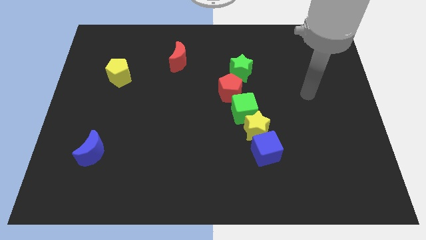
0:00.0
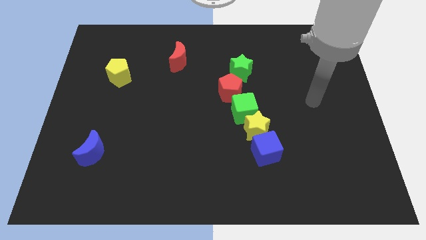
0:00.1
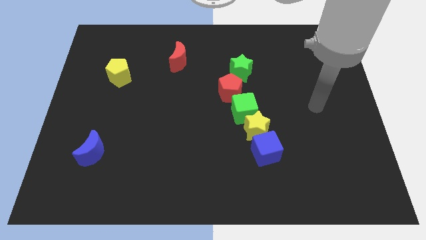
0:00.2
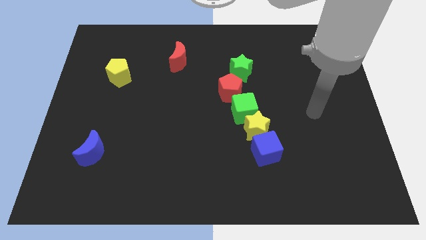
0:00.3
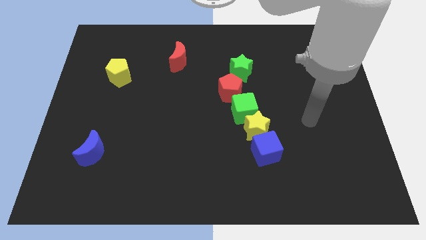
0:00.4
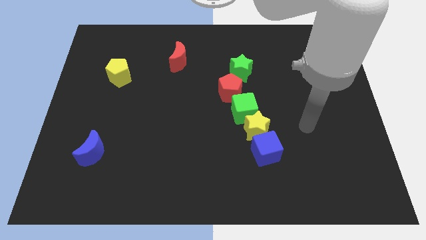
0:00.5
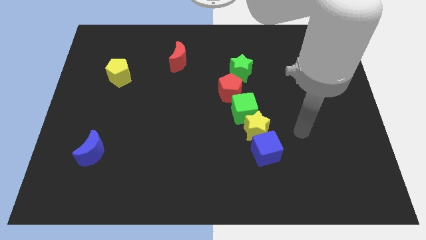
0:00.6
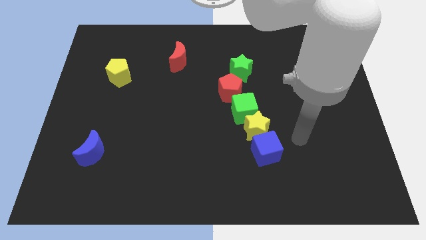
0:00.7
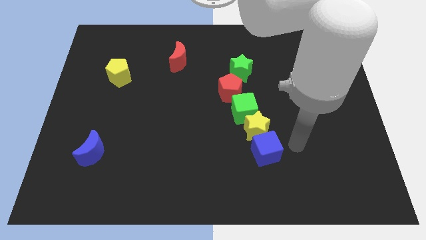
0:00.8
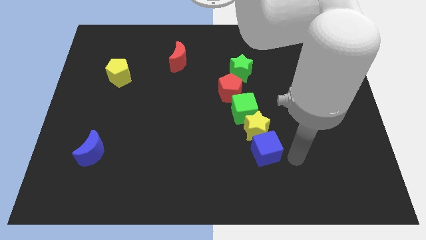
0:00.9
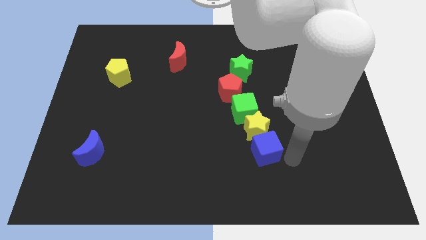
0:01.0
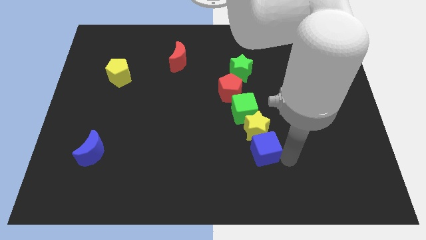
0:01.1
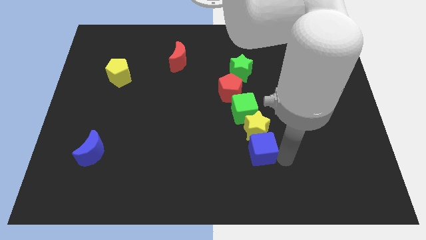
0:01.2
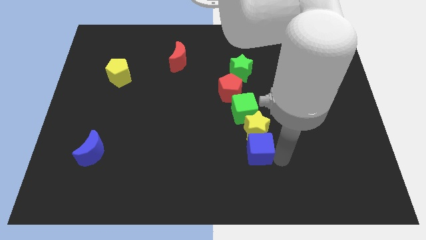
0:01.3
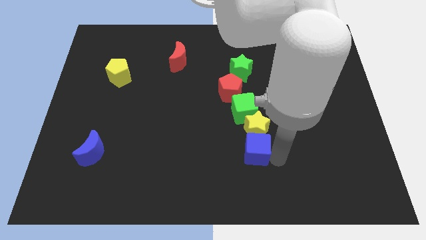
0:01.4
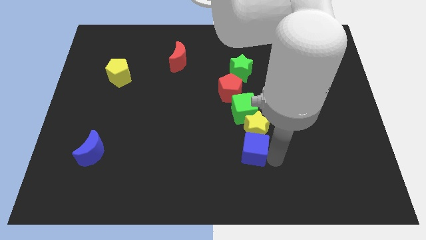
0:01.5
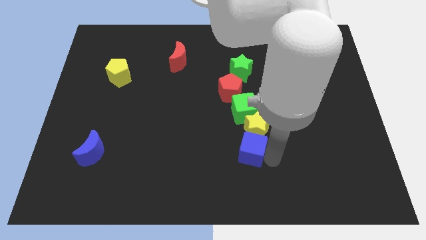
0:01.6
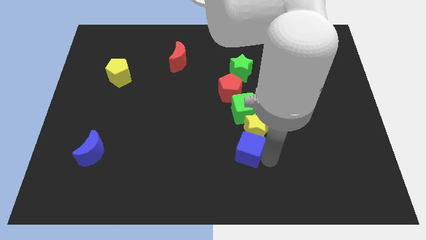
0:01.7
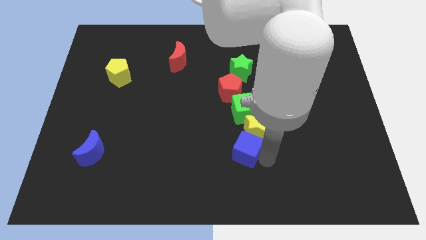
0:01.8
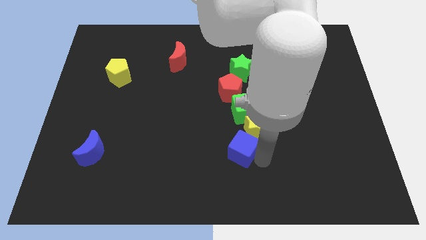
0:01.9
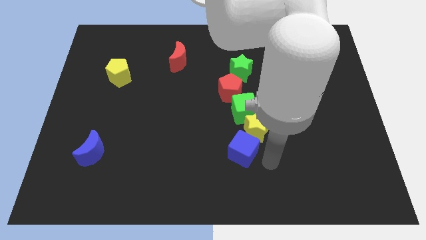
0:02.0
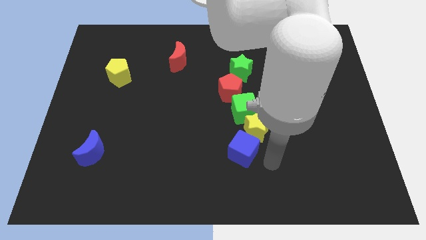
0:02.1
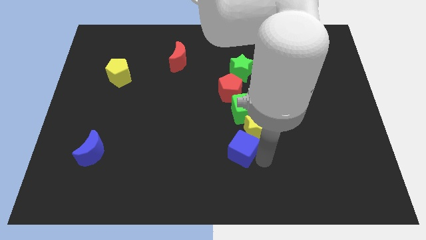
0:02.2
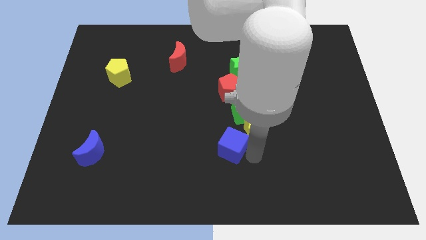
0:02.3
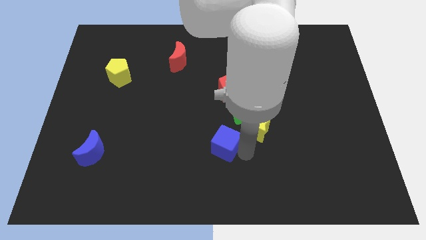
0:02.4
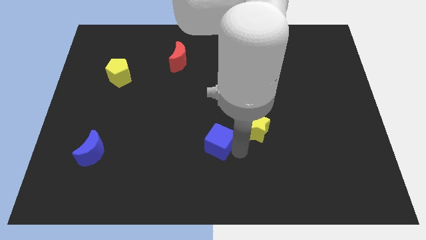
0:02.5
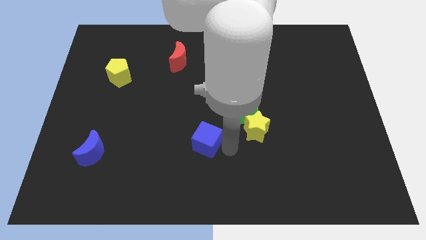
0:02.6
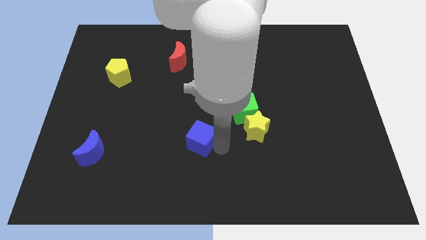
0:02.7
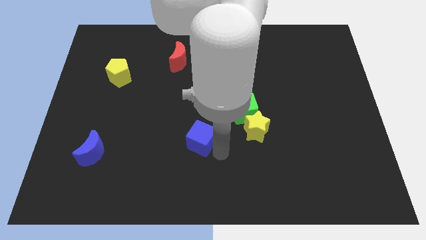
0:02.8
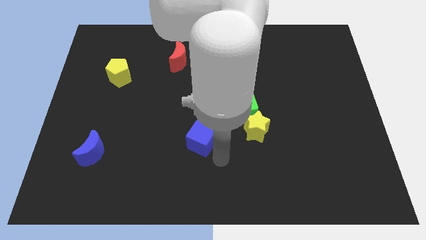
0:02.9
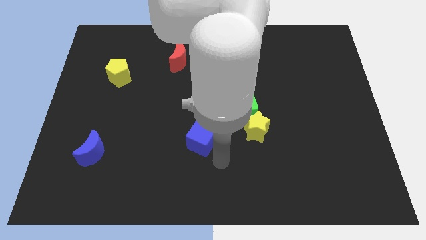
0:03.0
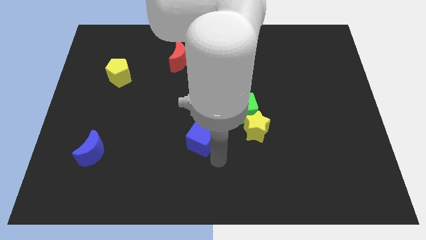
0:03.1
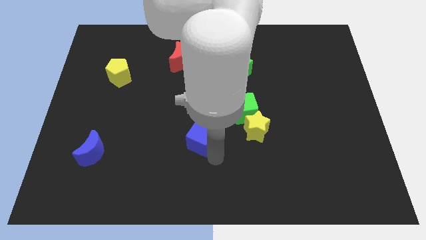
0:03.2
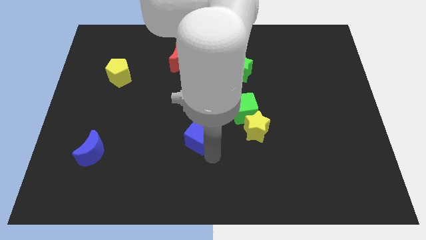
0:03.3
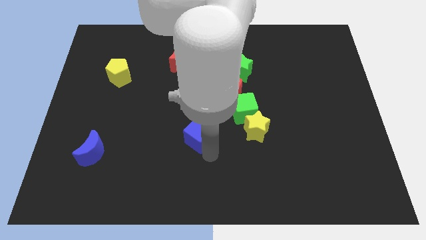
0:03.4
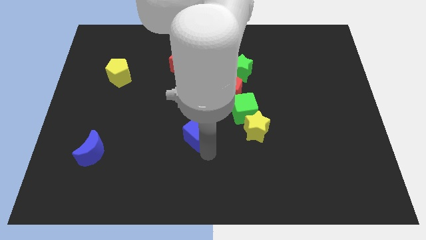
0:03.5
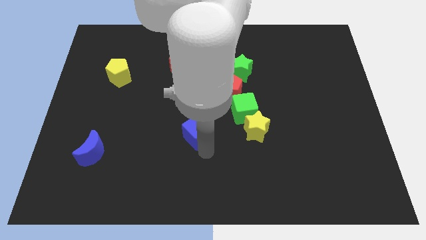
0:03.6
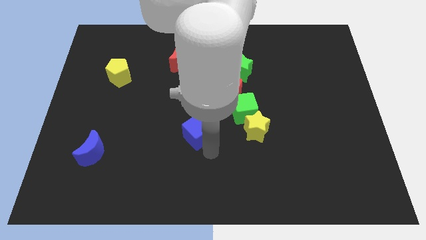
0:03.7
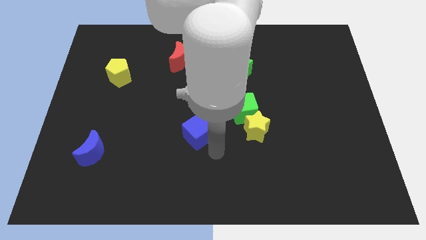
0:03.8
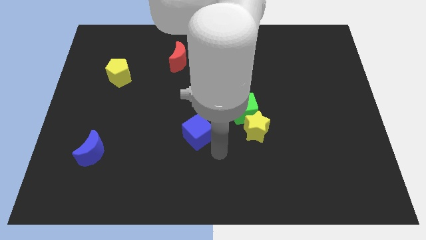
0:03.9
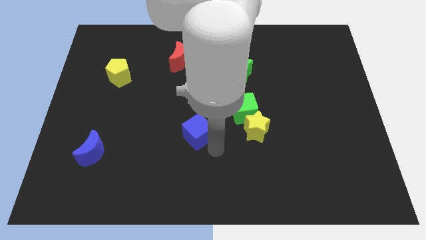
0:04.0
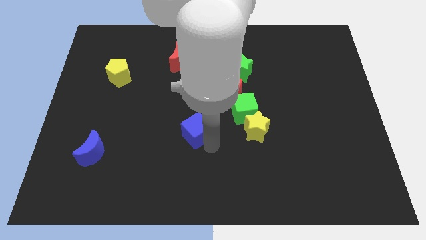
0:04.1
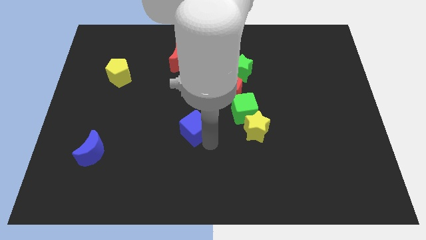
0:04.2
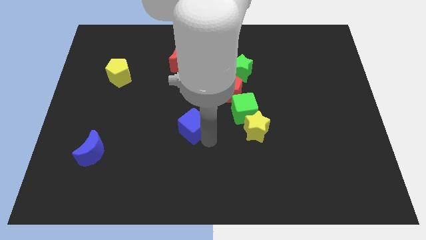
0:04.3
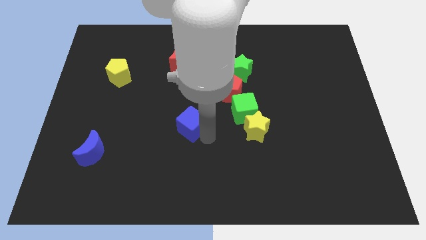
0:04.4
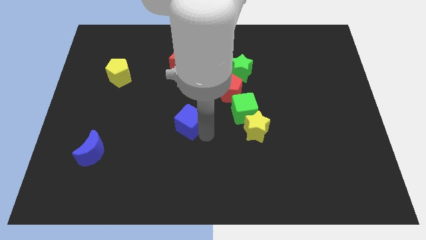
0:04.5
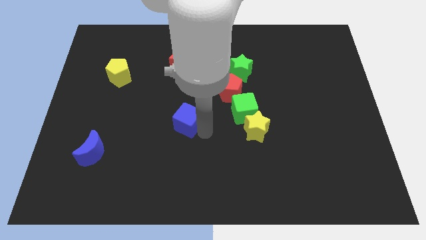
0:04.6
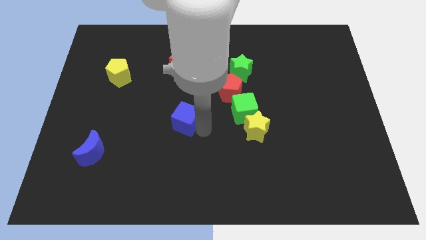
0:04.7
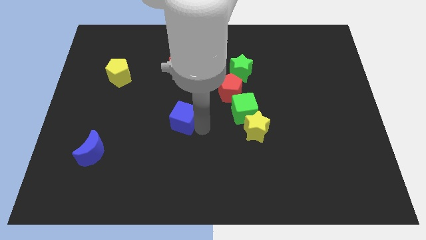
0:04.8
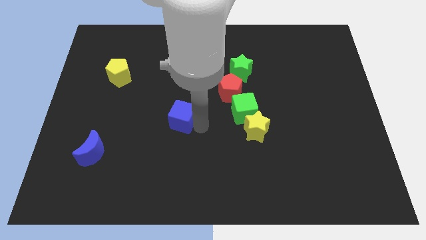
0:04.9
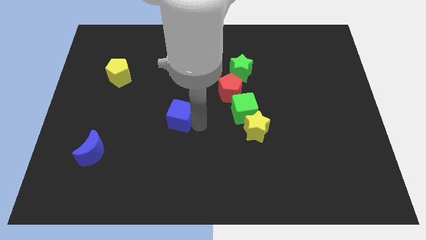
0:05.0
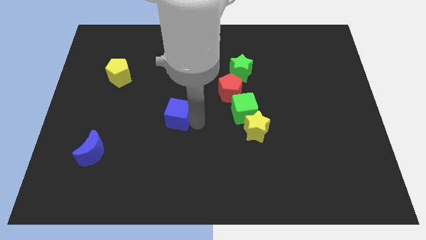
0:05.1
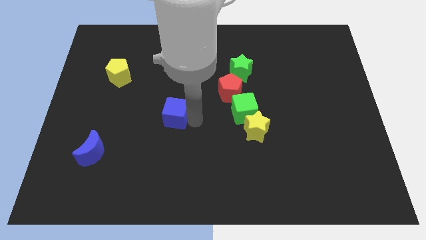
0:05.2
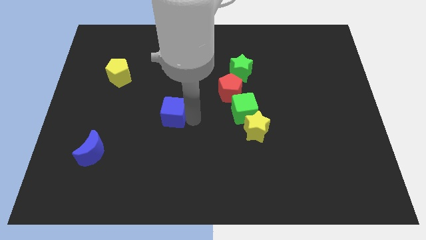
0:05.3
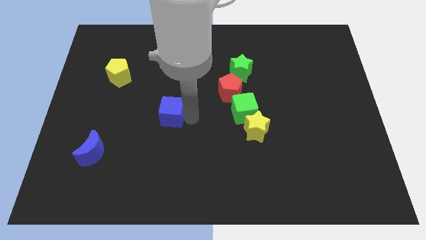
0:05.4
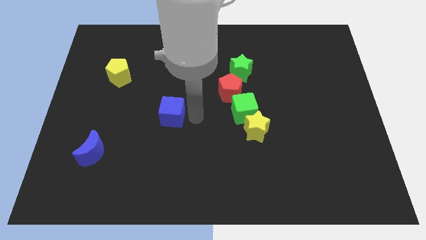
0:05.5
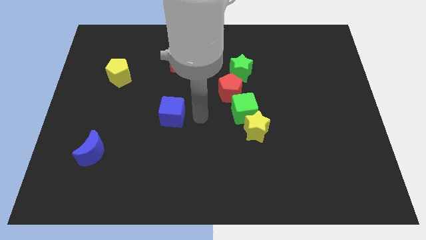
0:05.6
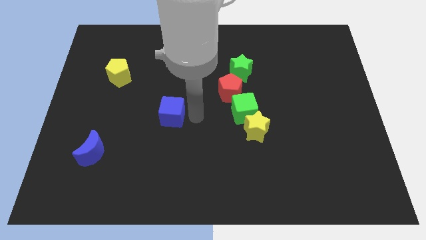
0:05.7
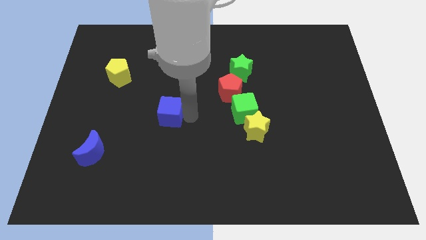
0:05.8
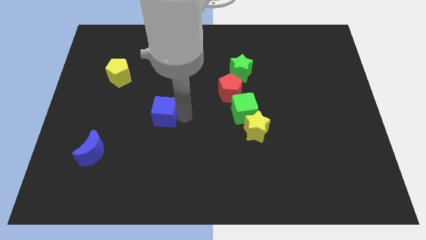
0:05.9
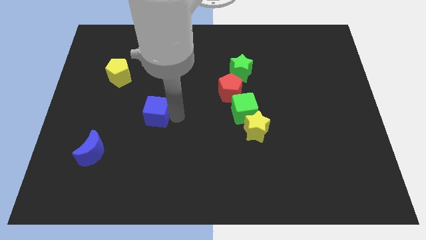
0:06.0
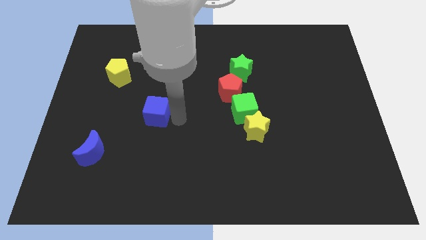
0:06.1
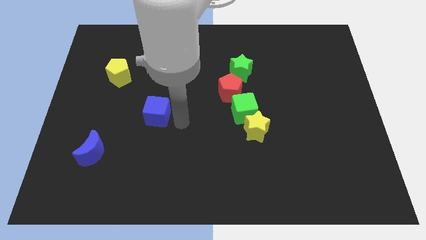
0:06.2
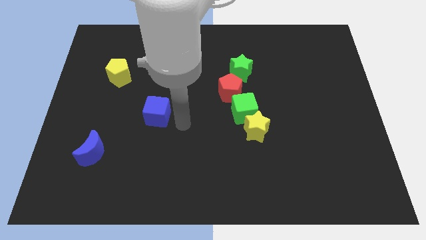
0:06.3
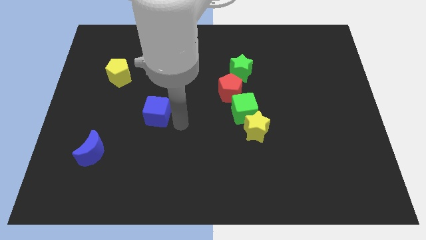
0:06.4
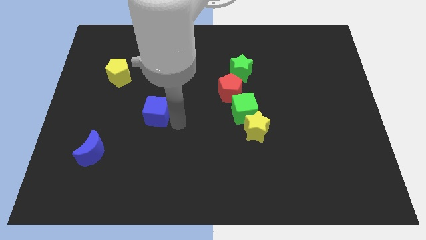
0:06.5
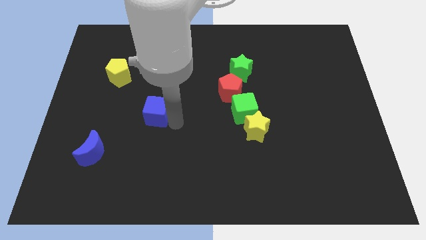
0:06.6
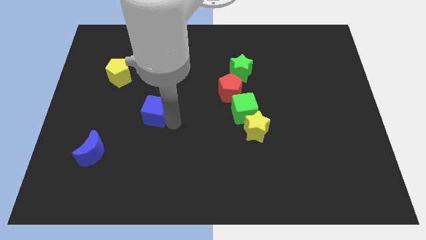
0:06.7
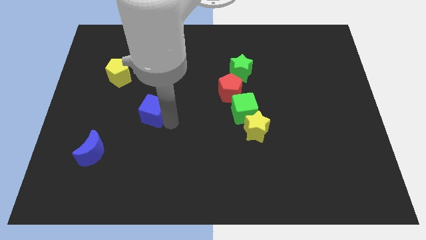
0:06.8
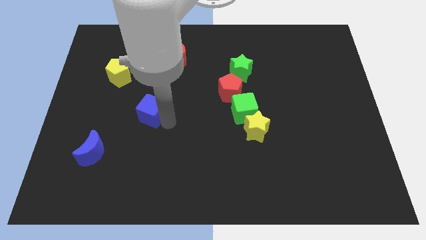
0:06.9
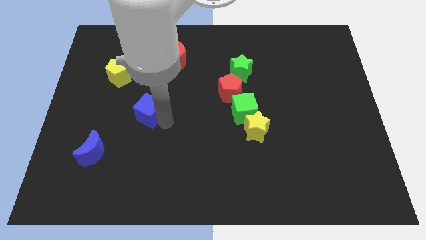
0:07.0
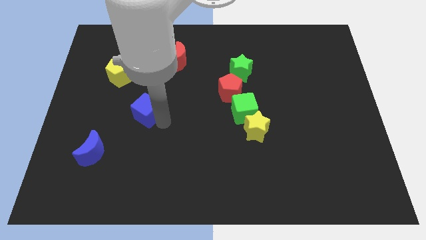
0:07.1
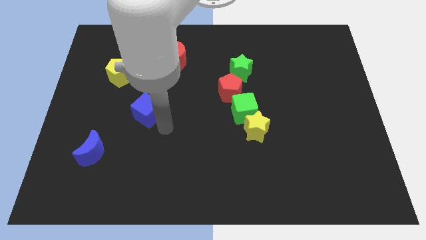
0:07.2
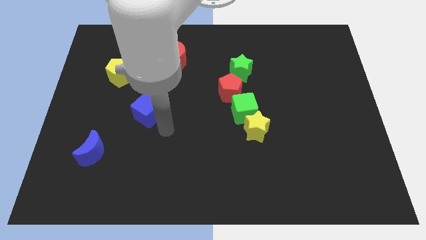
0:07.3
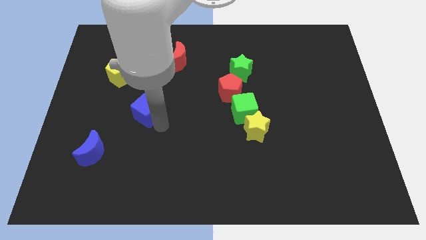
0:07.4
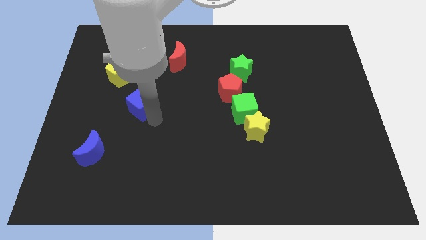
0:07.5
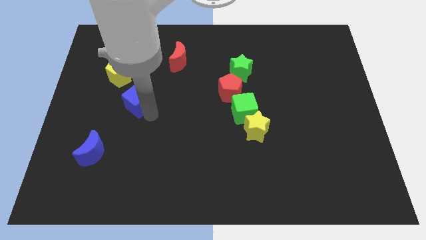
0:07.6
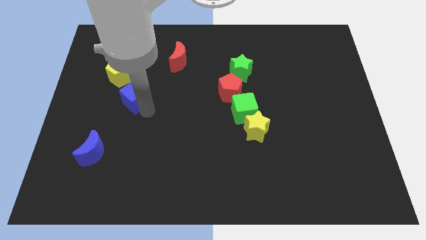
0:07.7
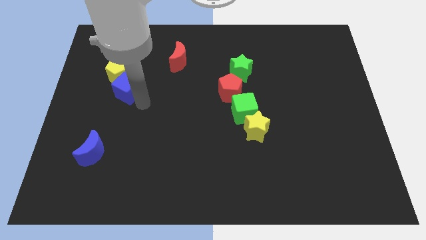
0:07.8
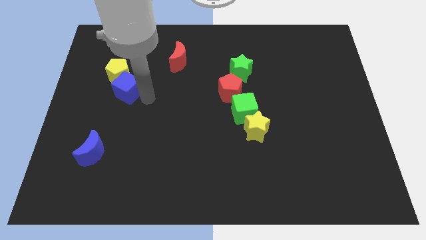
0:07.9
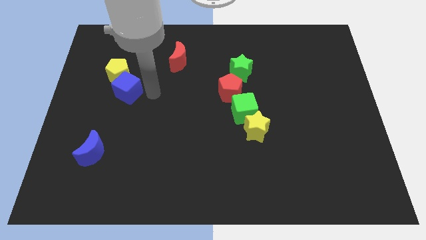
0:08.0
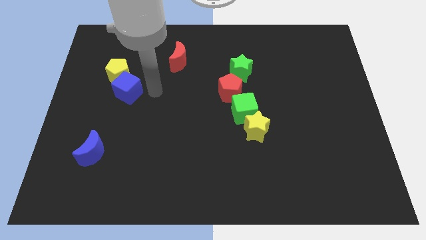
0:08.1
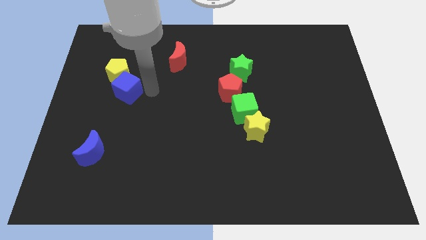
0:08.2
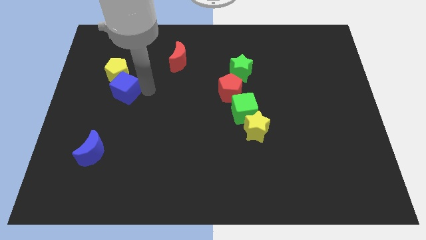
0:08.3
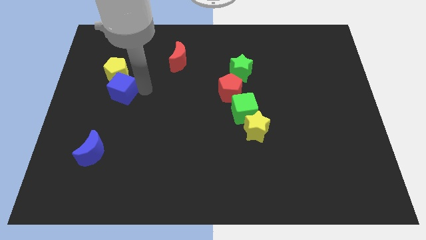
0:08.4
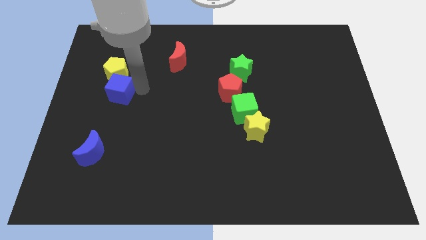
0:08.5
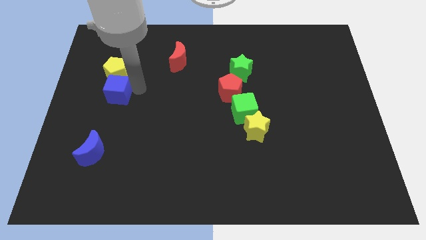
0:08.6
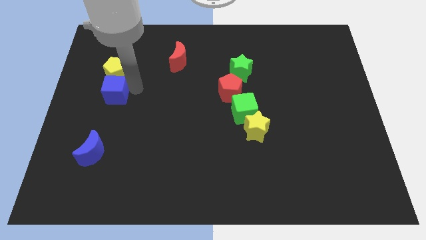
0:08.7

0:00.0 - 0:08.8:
push the blue cube diagonally down and to the left of the yellow pentagon
